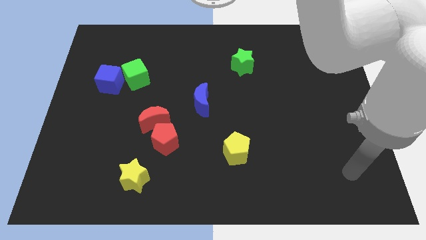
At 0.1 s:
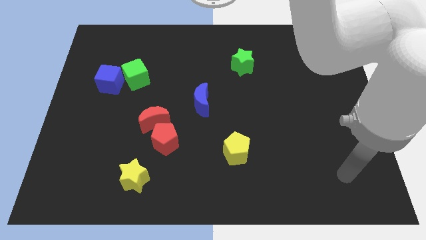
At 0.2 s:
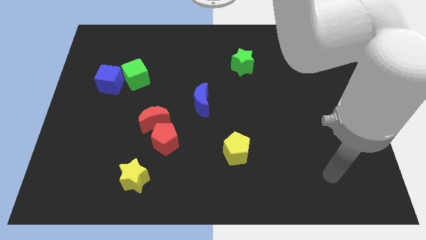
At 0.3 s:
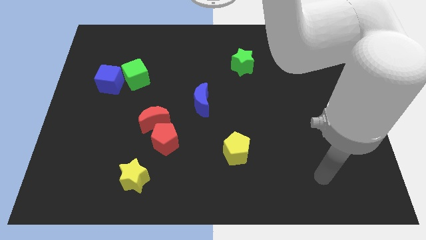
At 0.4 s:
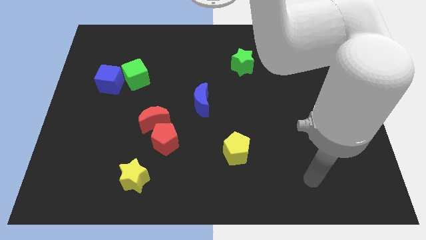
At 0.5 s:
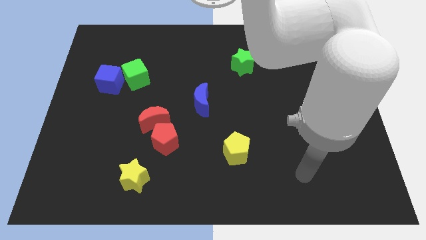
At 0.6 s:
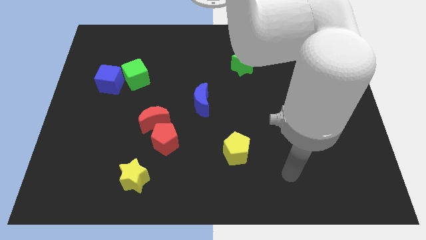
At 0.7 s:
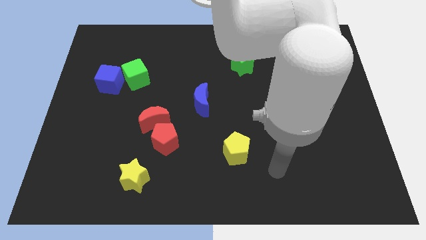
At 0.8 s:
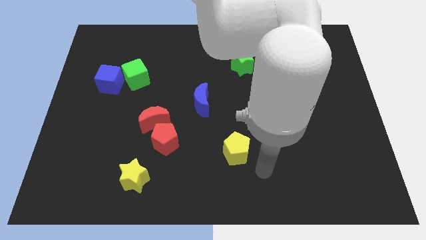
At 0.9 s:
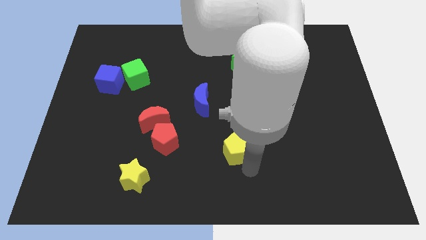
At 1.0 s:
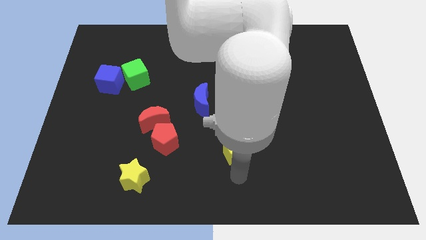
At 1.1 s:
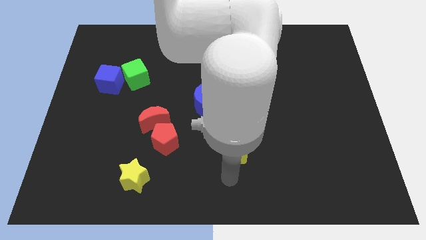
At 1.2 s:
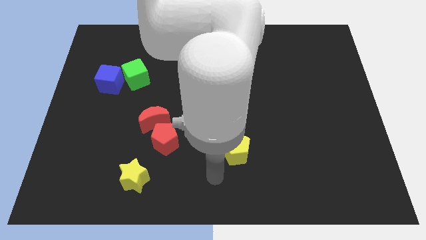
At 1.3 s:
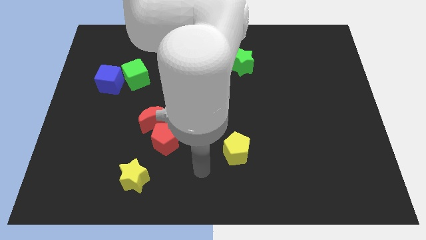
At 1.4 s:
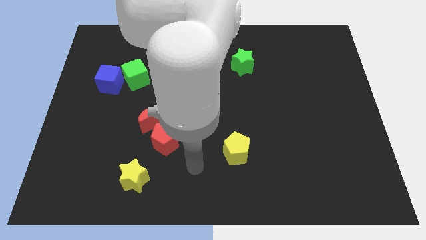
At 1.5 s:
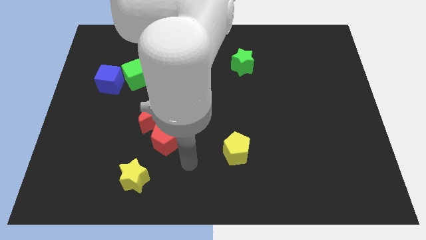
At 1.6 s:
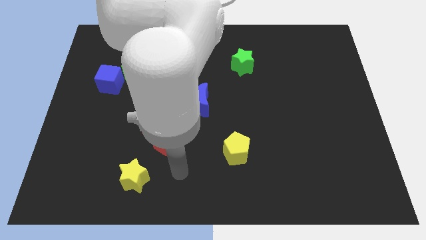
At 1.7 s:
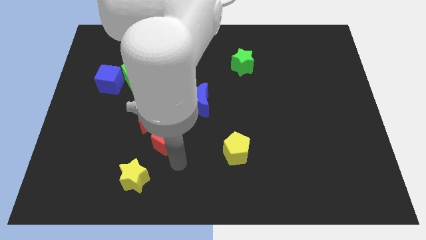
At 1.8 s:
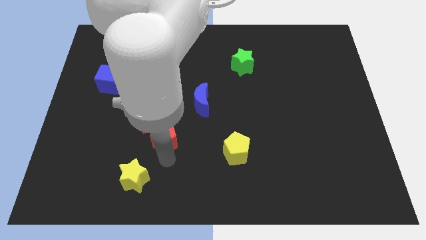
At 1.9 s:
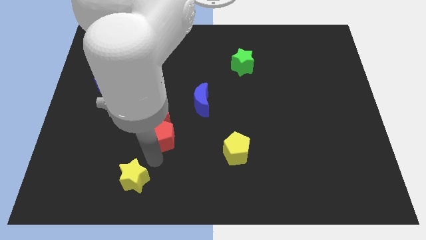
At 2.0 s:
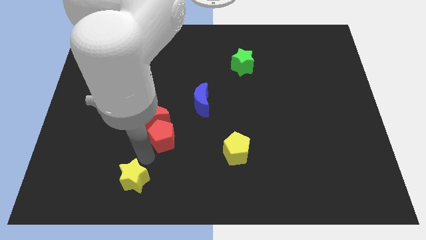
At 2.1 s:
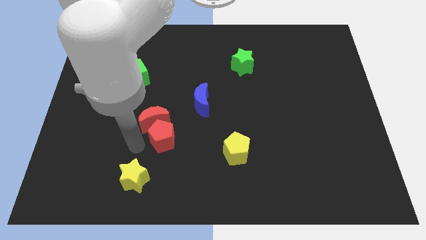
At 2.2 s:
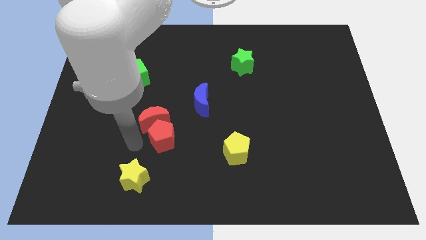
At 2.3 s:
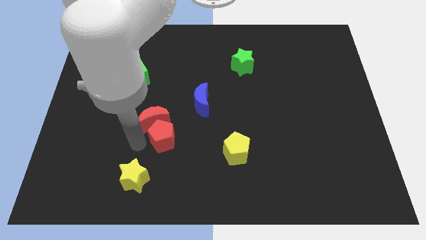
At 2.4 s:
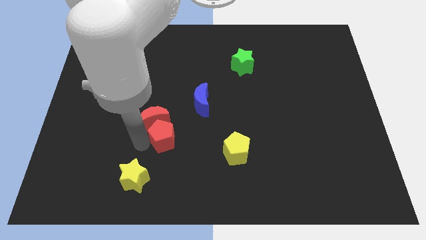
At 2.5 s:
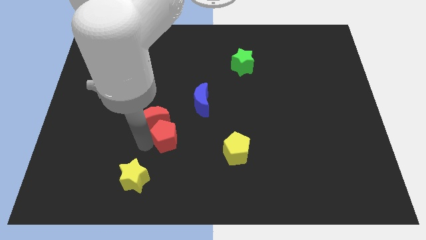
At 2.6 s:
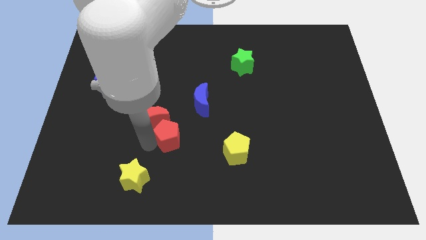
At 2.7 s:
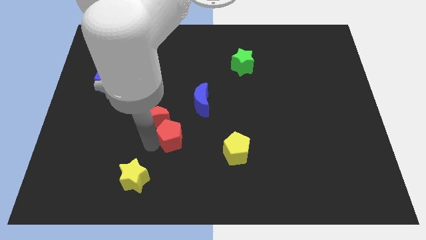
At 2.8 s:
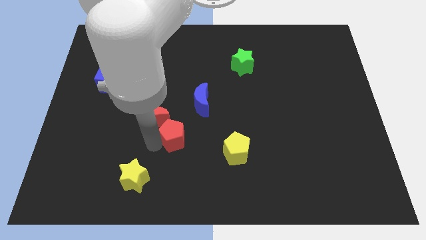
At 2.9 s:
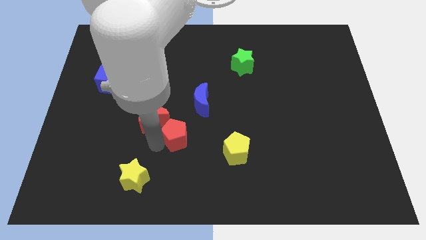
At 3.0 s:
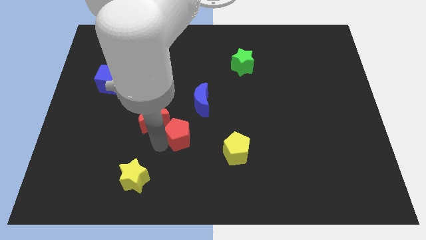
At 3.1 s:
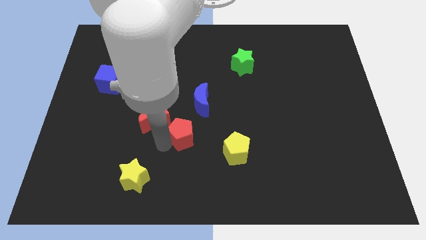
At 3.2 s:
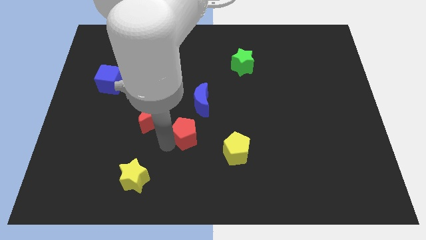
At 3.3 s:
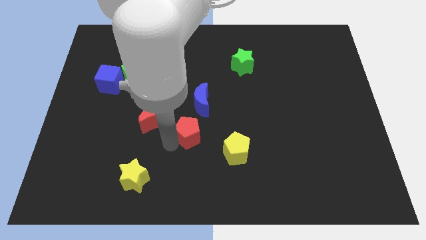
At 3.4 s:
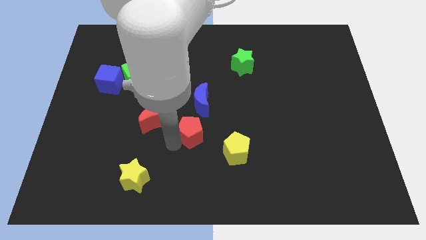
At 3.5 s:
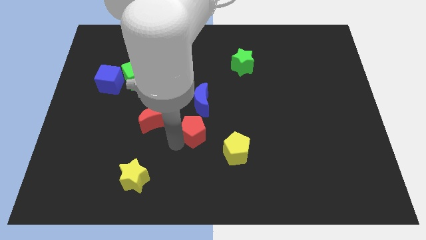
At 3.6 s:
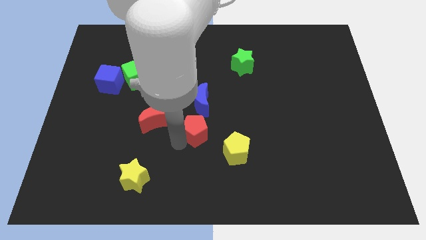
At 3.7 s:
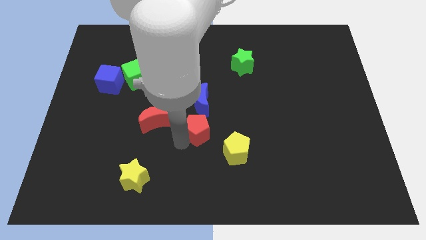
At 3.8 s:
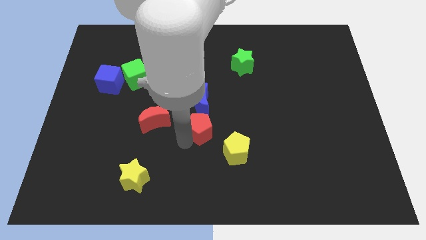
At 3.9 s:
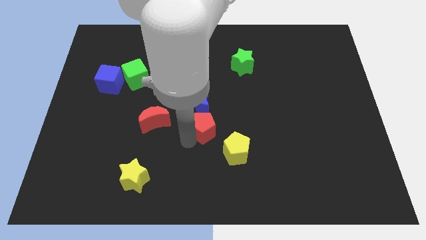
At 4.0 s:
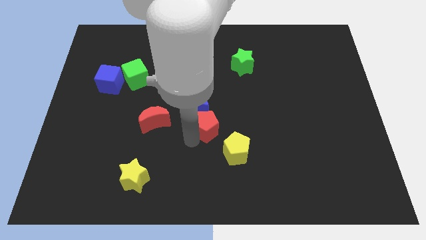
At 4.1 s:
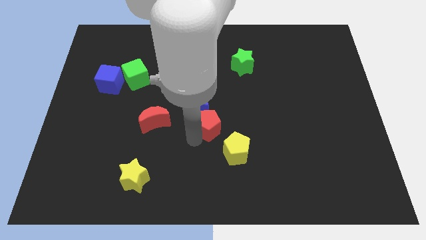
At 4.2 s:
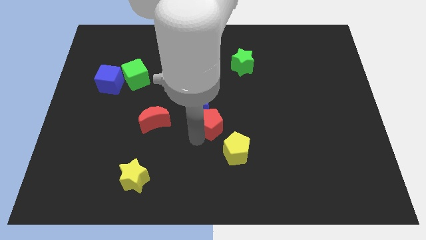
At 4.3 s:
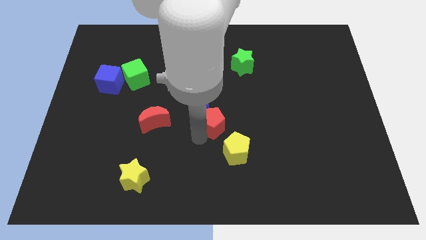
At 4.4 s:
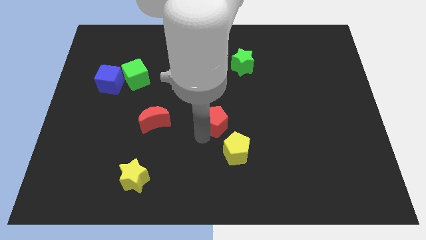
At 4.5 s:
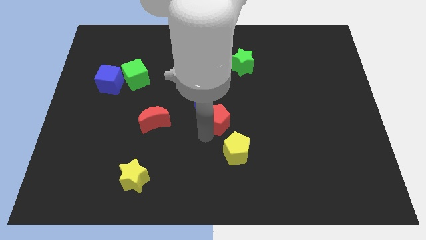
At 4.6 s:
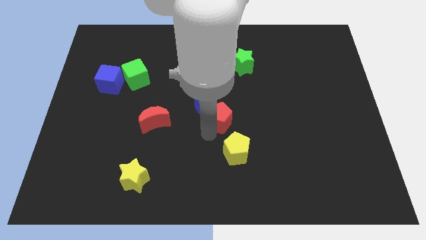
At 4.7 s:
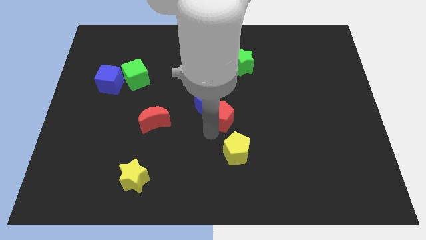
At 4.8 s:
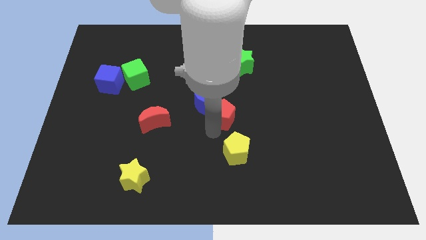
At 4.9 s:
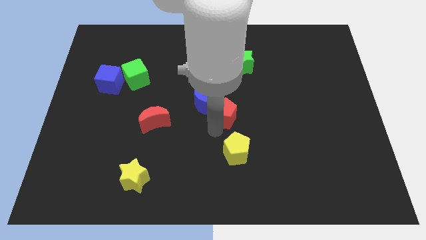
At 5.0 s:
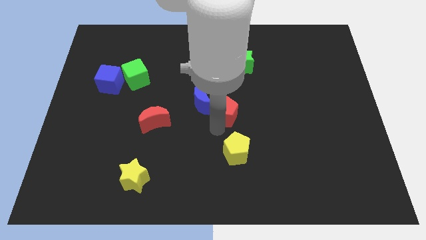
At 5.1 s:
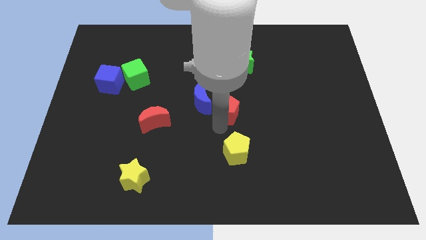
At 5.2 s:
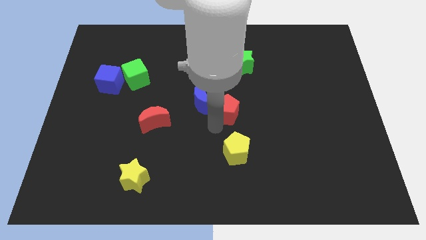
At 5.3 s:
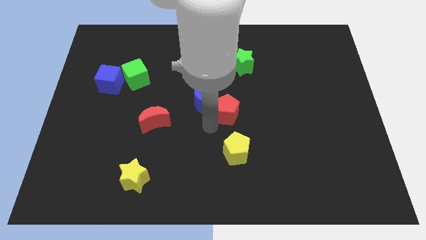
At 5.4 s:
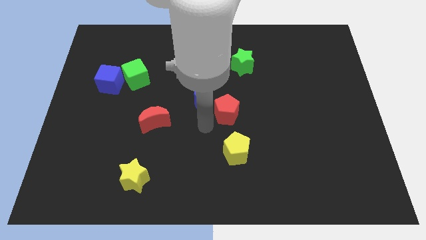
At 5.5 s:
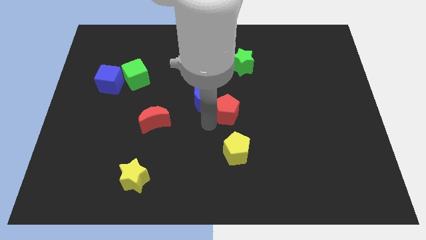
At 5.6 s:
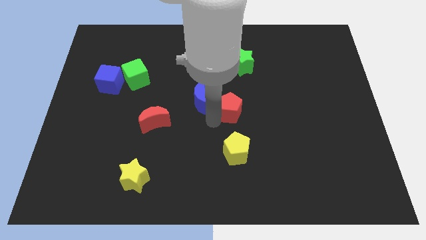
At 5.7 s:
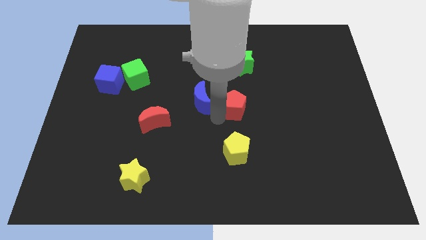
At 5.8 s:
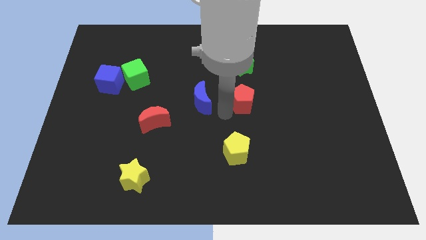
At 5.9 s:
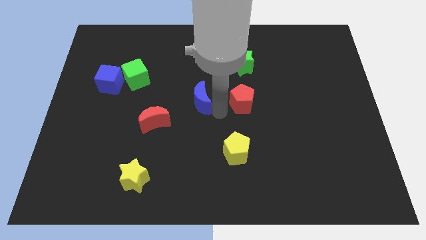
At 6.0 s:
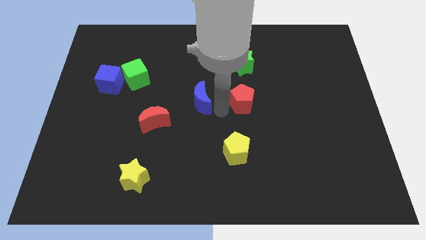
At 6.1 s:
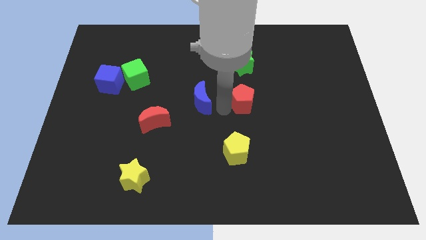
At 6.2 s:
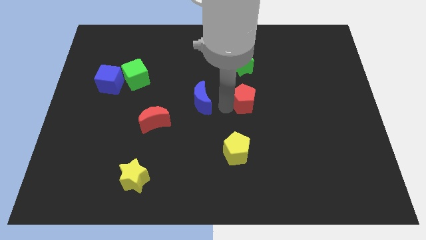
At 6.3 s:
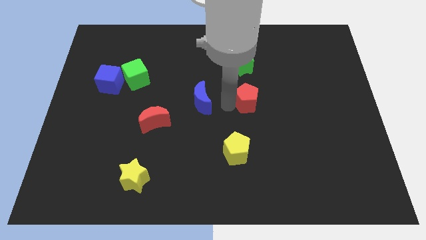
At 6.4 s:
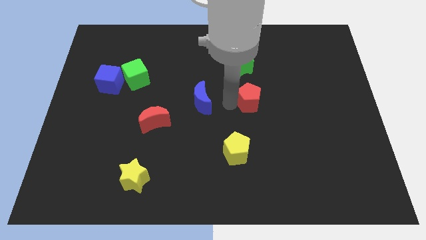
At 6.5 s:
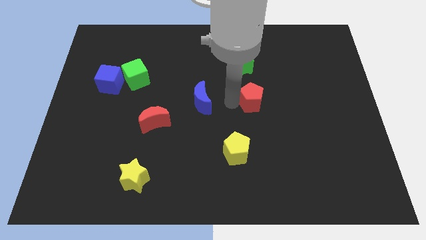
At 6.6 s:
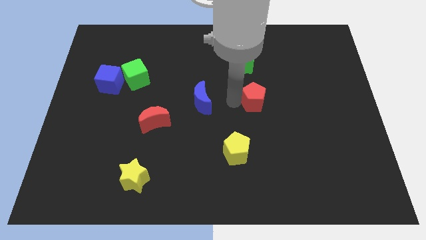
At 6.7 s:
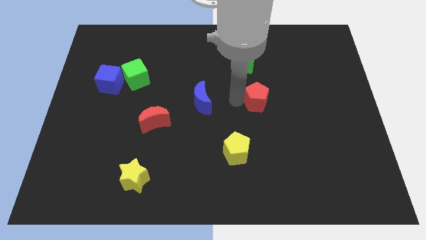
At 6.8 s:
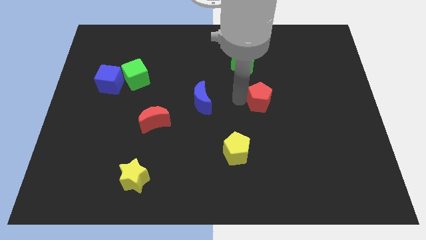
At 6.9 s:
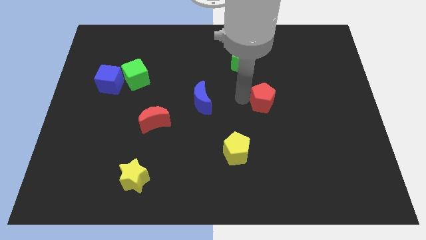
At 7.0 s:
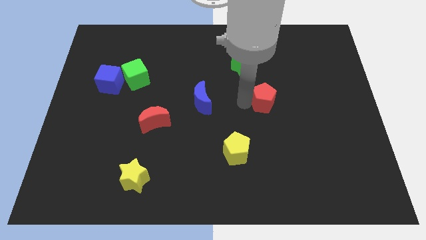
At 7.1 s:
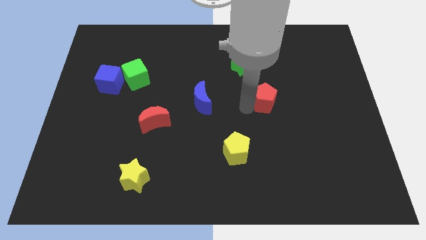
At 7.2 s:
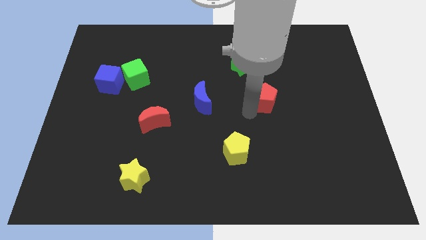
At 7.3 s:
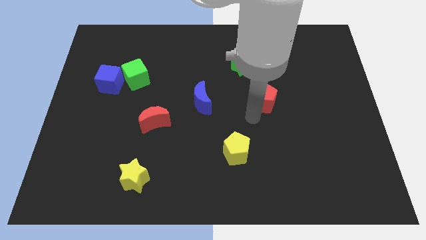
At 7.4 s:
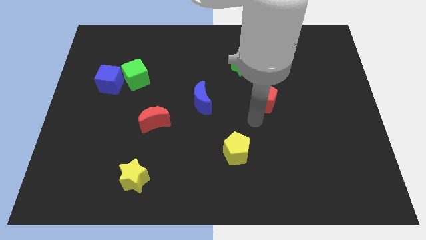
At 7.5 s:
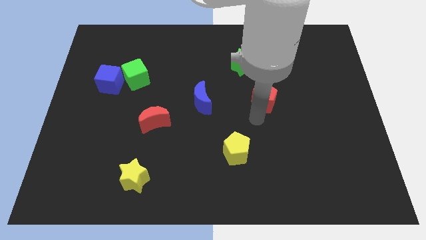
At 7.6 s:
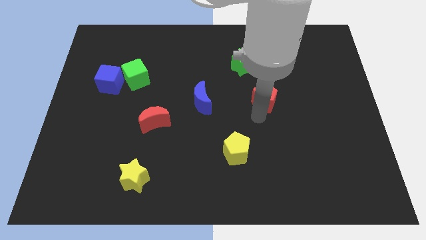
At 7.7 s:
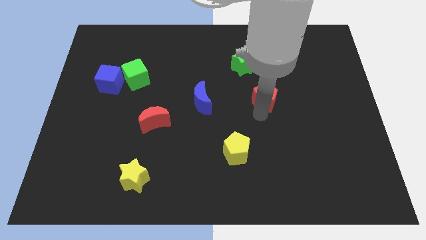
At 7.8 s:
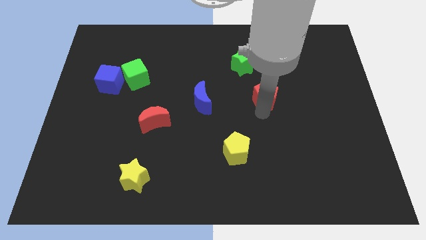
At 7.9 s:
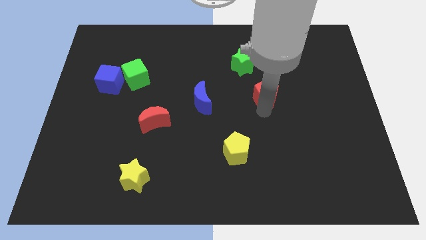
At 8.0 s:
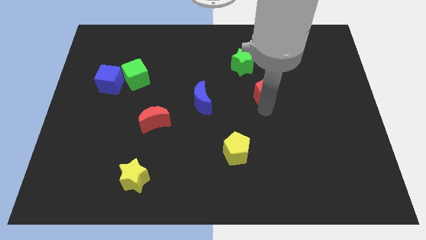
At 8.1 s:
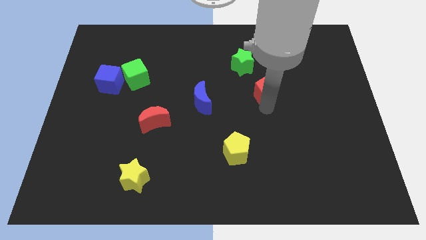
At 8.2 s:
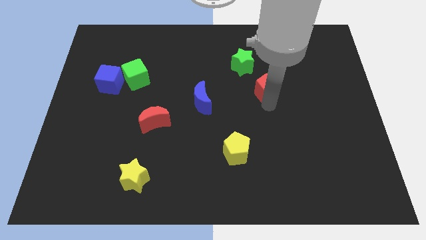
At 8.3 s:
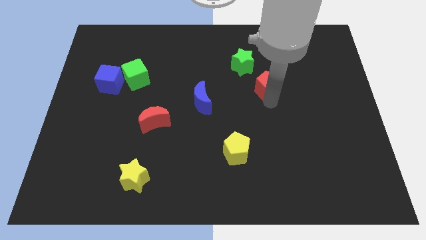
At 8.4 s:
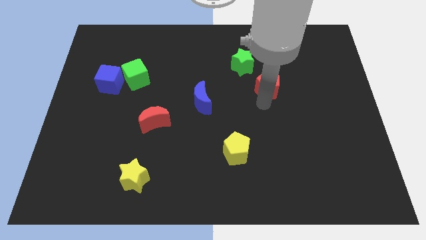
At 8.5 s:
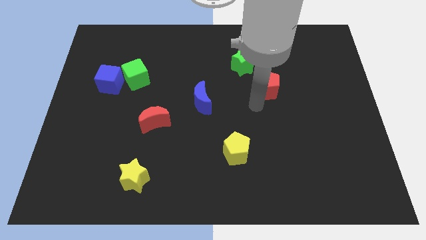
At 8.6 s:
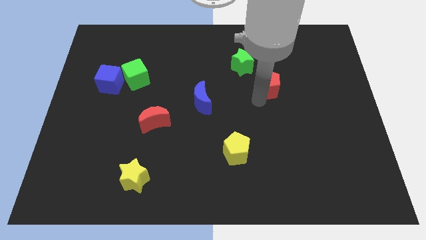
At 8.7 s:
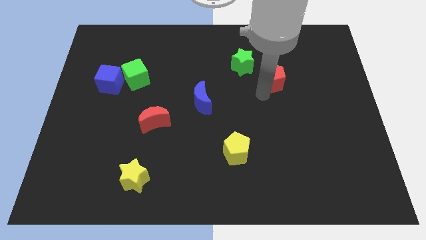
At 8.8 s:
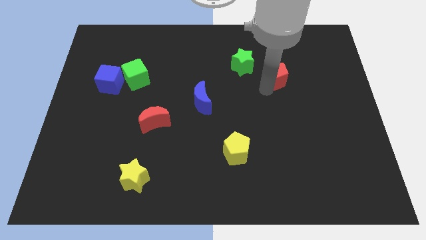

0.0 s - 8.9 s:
put the red pentagon right of the green star
